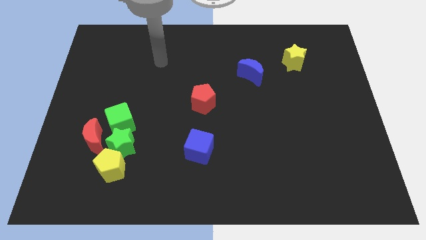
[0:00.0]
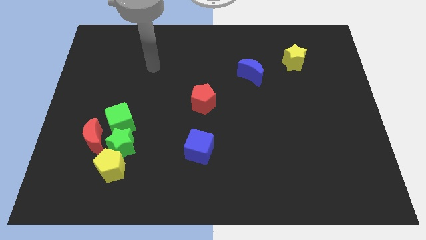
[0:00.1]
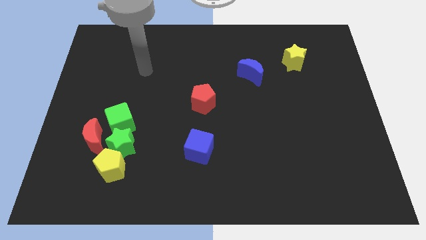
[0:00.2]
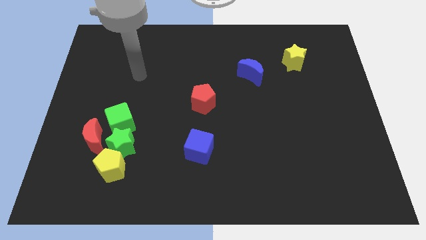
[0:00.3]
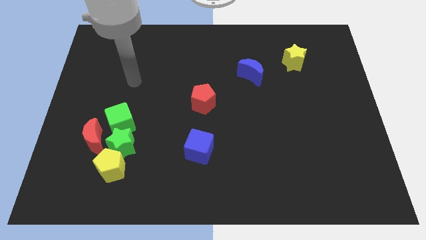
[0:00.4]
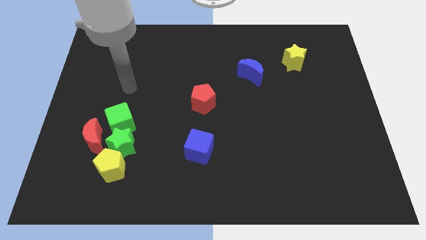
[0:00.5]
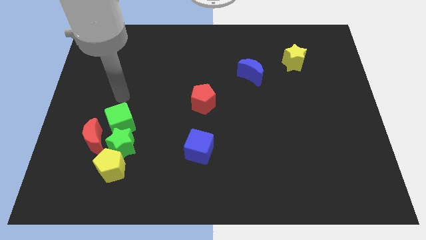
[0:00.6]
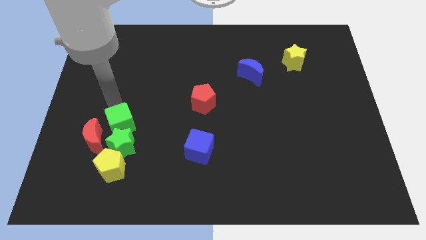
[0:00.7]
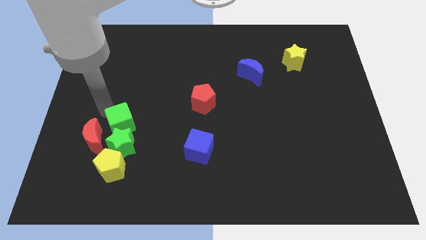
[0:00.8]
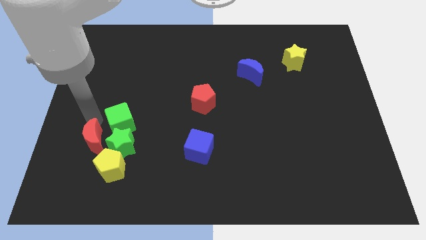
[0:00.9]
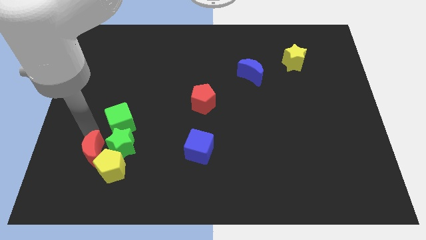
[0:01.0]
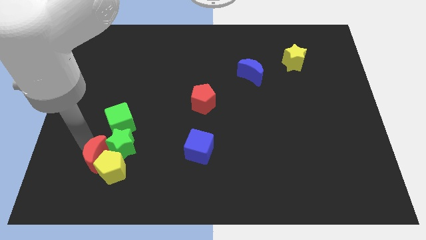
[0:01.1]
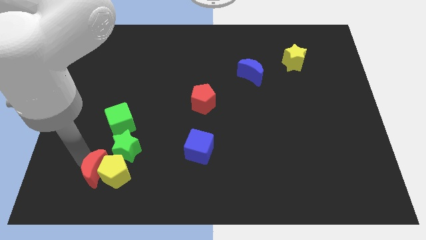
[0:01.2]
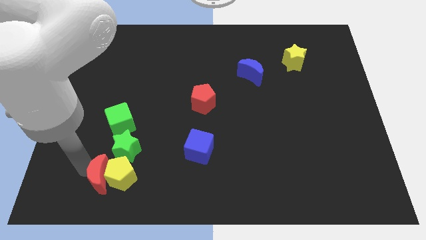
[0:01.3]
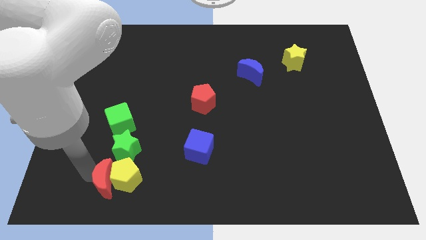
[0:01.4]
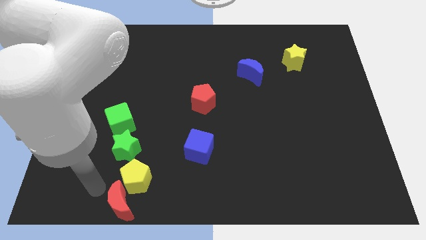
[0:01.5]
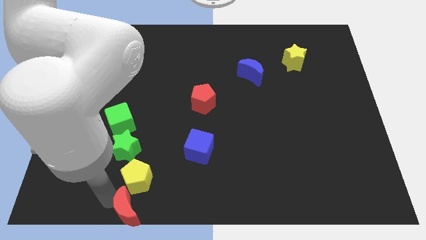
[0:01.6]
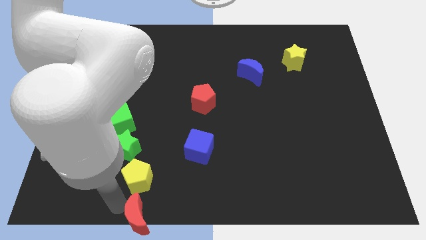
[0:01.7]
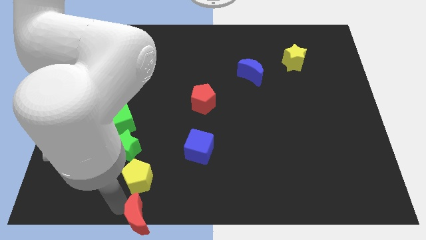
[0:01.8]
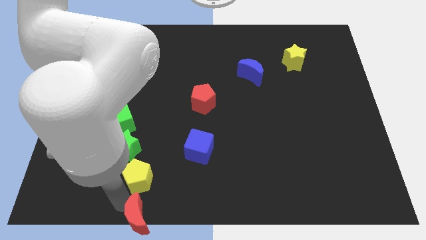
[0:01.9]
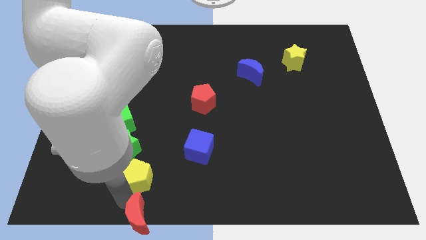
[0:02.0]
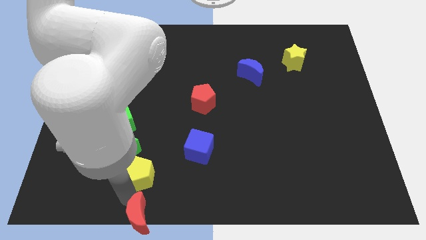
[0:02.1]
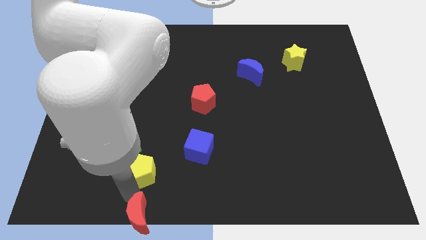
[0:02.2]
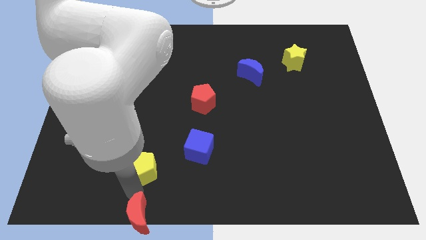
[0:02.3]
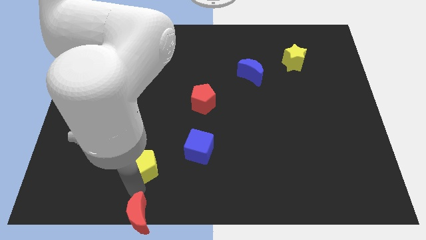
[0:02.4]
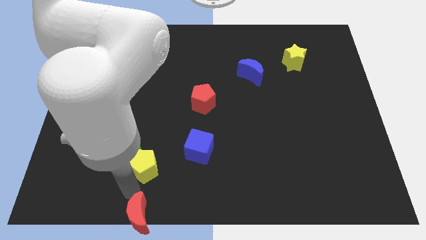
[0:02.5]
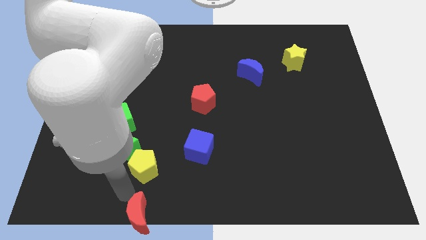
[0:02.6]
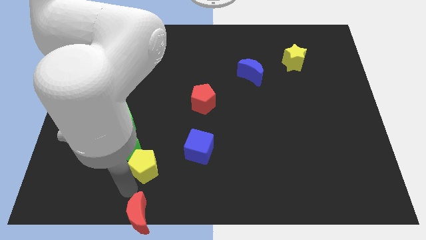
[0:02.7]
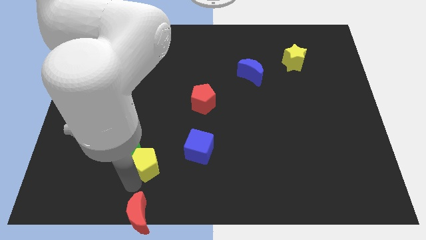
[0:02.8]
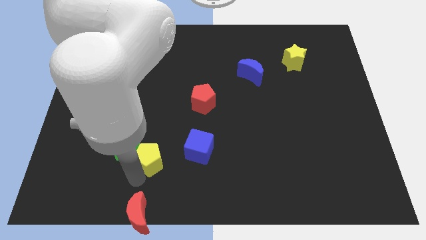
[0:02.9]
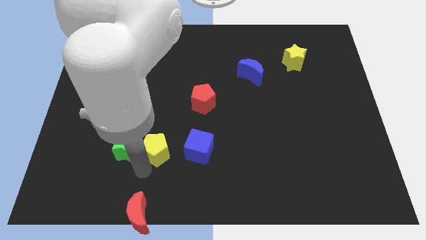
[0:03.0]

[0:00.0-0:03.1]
push the yellow pentagon up and then right a little

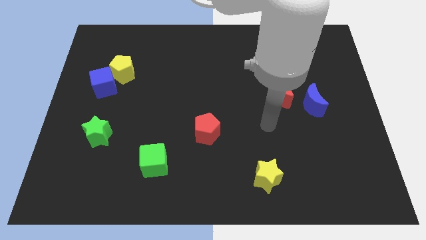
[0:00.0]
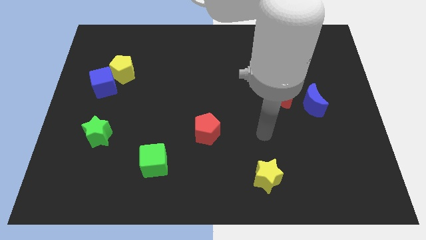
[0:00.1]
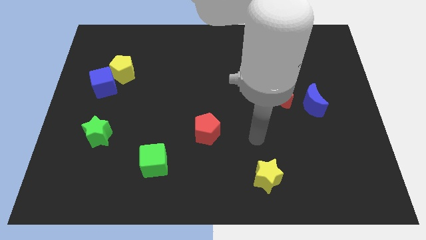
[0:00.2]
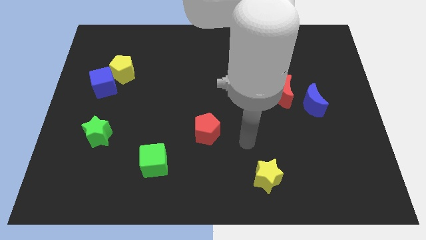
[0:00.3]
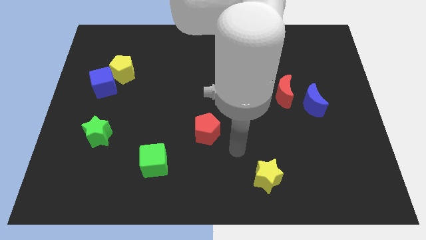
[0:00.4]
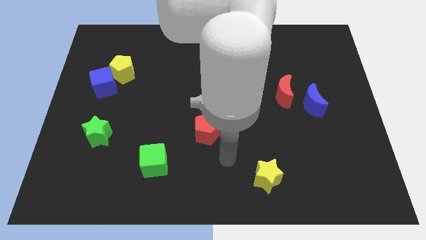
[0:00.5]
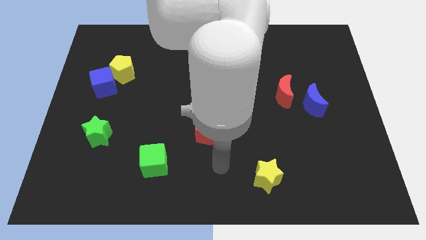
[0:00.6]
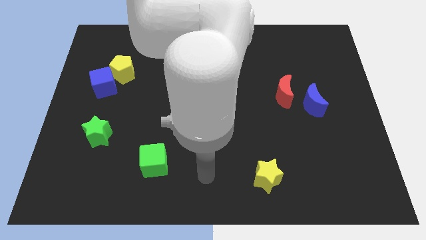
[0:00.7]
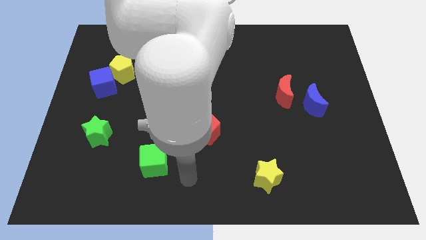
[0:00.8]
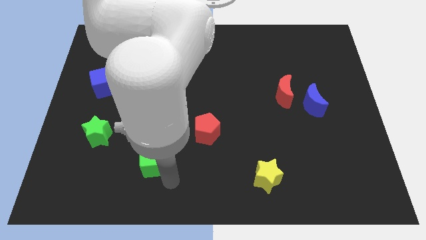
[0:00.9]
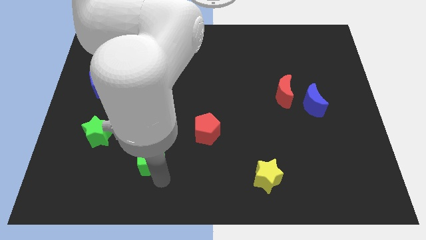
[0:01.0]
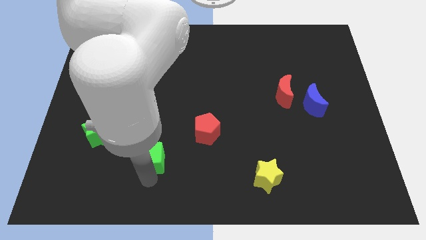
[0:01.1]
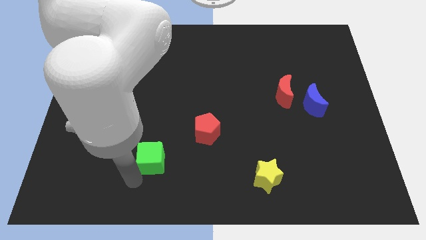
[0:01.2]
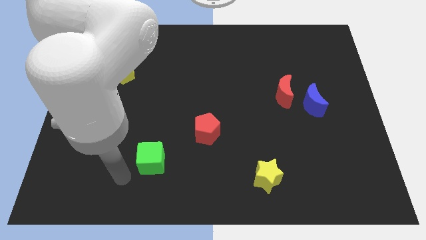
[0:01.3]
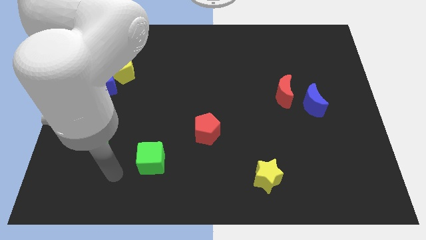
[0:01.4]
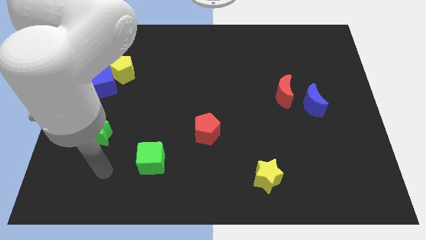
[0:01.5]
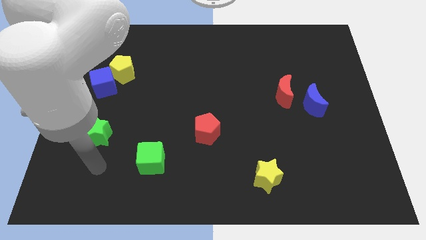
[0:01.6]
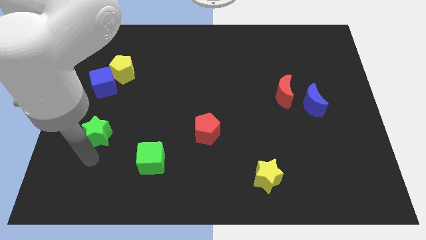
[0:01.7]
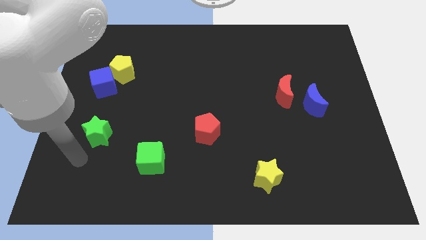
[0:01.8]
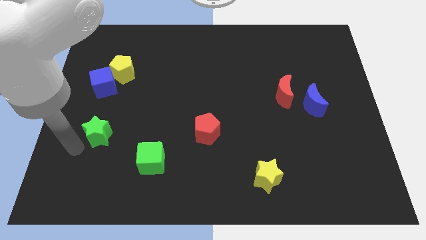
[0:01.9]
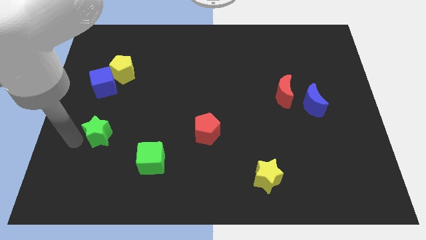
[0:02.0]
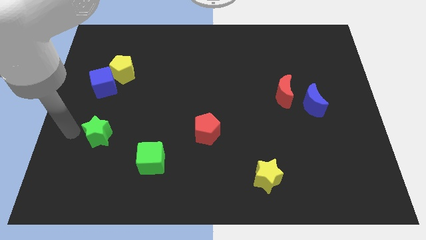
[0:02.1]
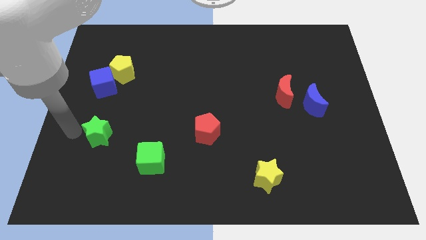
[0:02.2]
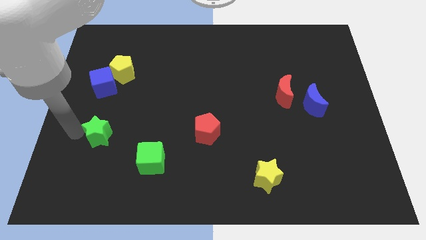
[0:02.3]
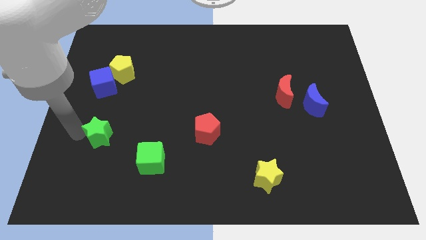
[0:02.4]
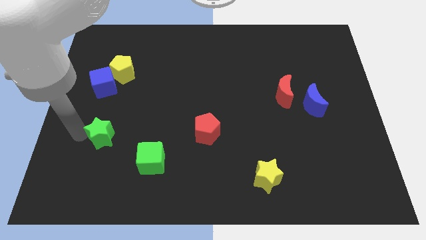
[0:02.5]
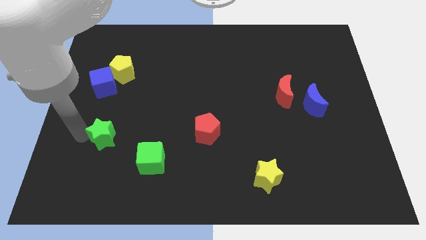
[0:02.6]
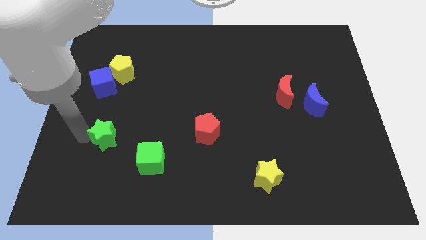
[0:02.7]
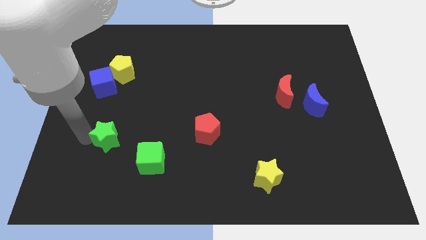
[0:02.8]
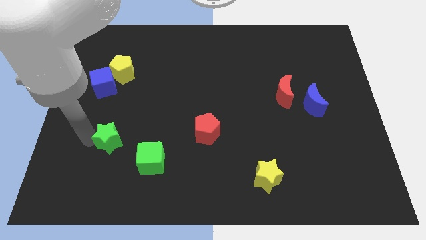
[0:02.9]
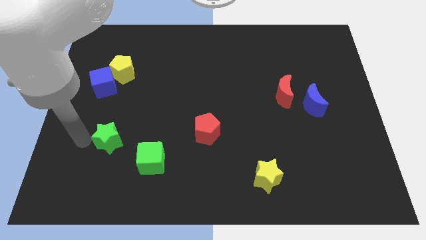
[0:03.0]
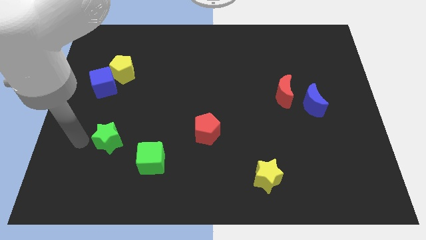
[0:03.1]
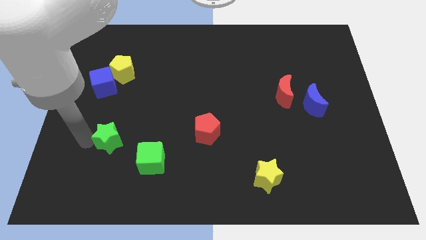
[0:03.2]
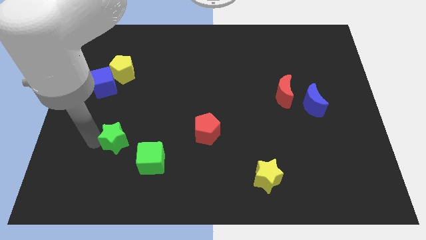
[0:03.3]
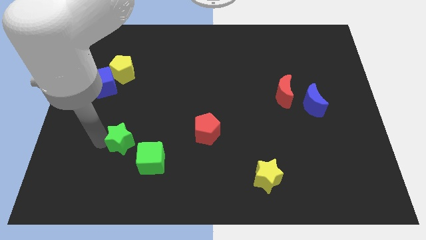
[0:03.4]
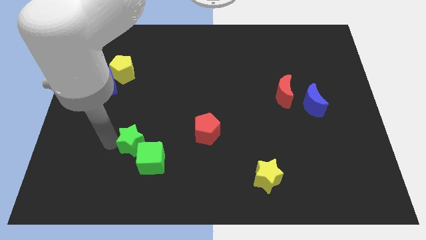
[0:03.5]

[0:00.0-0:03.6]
push the green star right a bit

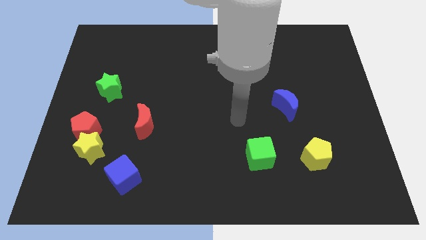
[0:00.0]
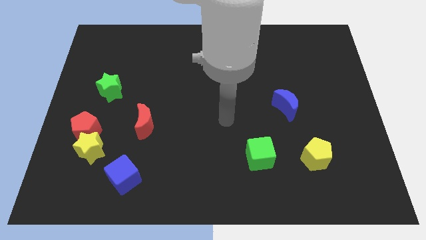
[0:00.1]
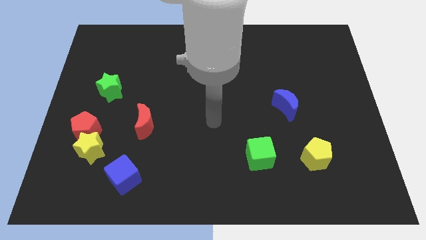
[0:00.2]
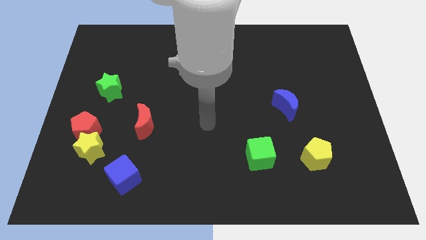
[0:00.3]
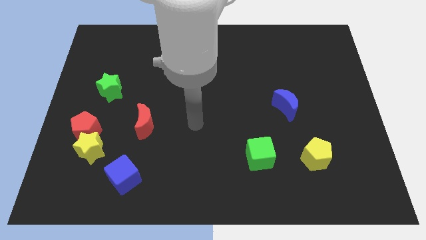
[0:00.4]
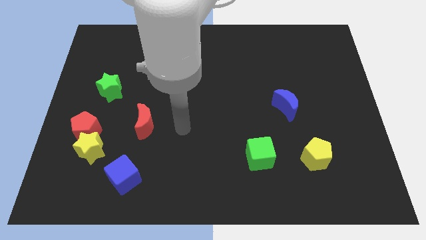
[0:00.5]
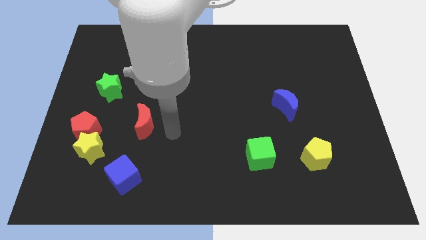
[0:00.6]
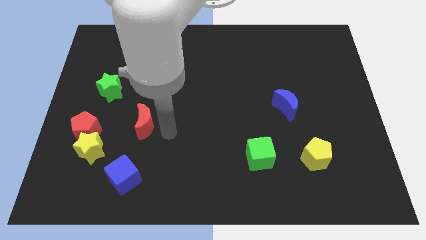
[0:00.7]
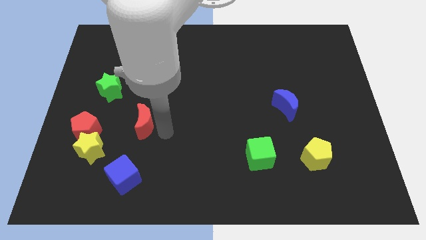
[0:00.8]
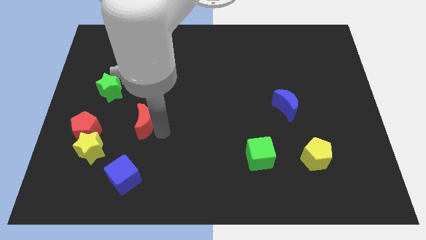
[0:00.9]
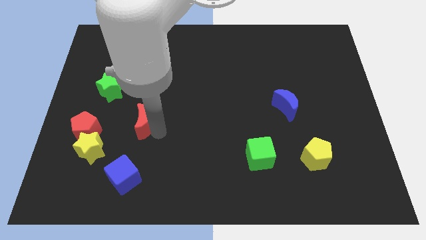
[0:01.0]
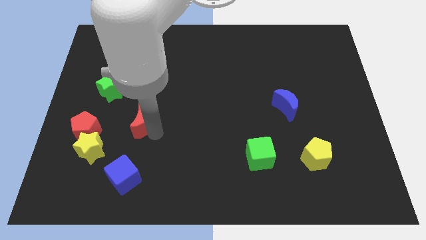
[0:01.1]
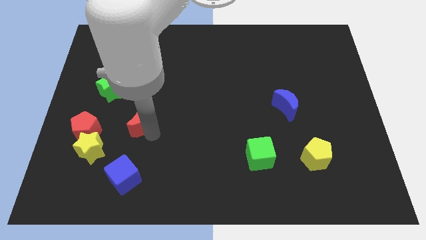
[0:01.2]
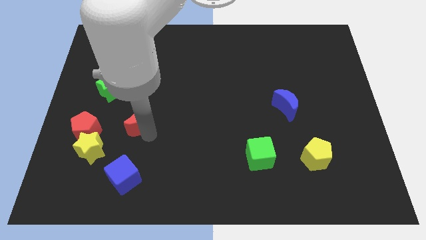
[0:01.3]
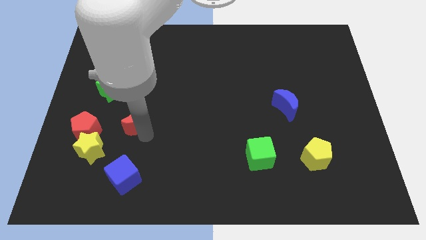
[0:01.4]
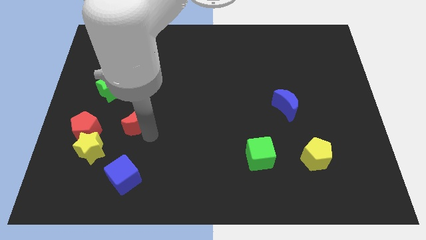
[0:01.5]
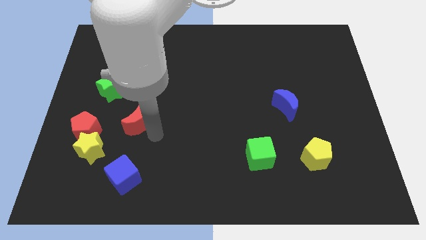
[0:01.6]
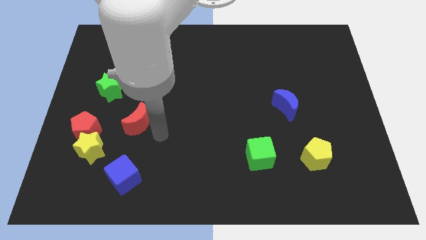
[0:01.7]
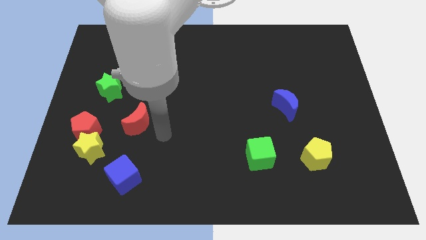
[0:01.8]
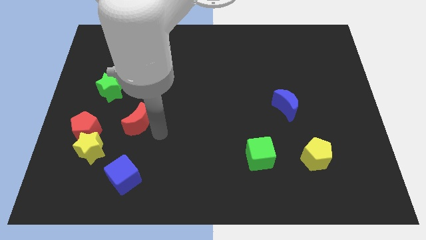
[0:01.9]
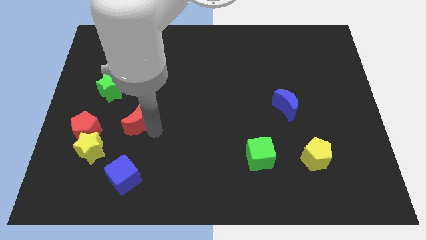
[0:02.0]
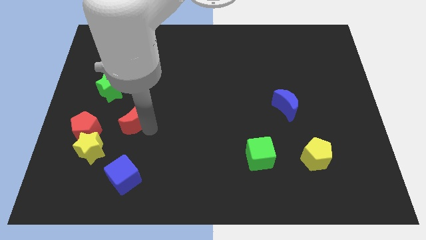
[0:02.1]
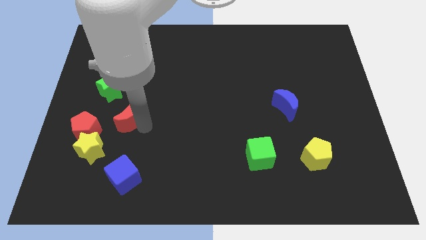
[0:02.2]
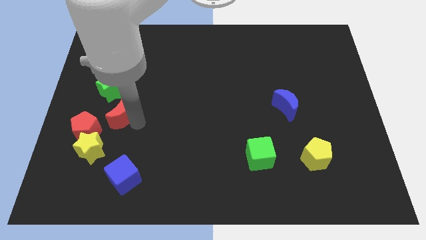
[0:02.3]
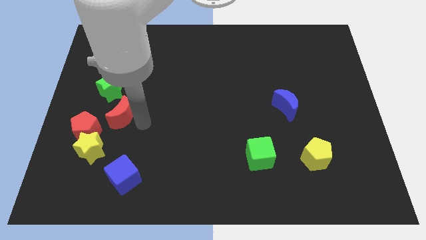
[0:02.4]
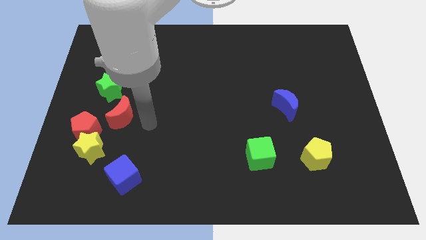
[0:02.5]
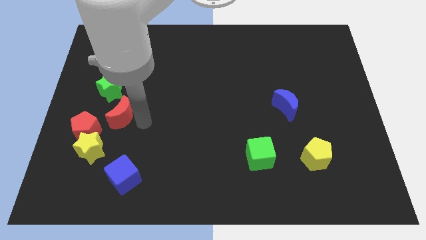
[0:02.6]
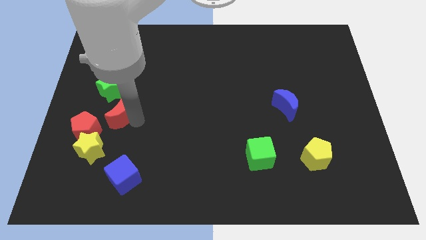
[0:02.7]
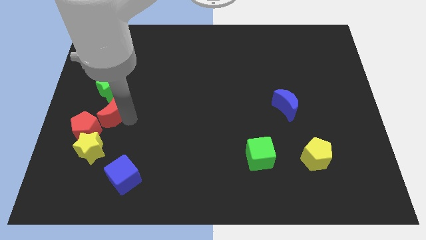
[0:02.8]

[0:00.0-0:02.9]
move the red moon upwards and then left a bit
